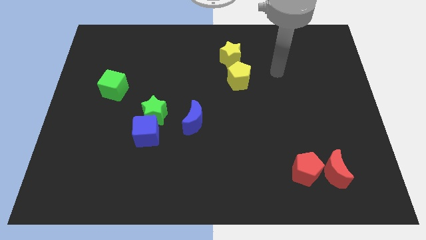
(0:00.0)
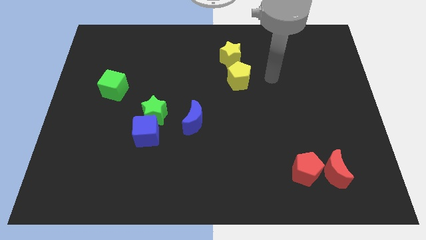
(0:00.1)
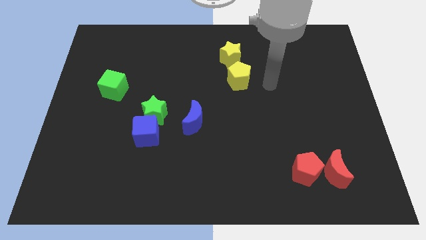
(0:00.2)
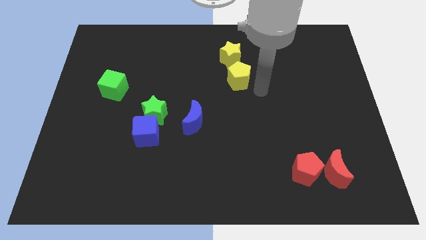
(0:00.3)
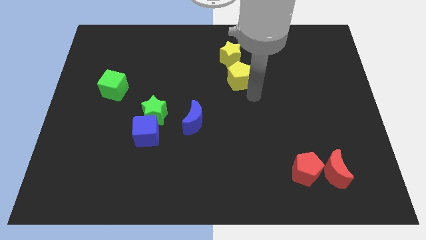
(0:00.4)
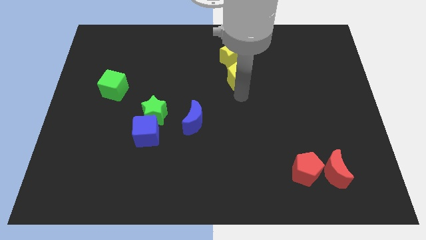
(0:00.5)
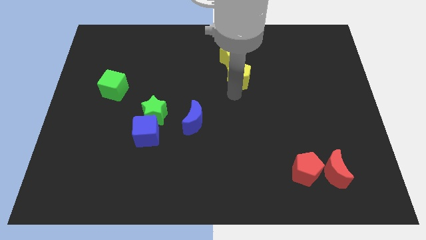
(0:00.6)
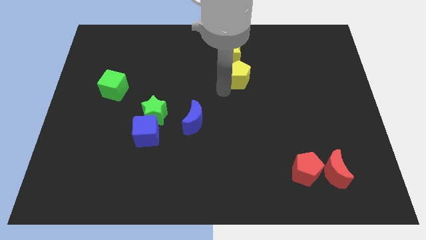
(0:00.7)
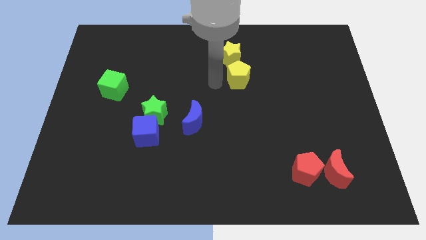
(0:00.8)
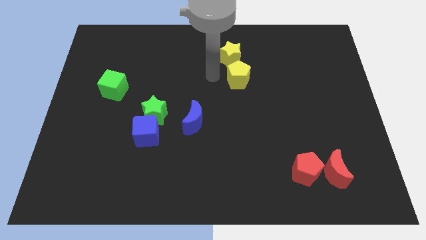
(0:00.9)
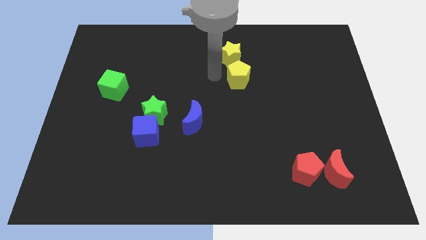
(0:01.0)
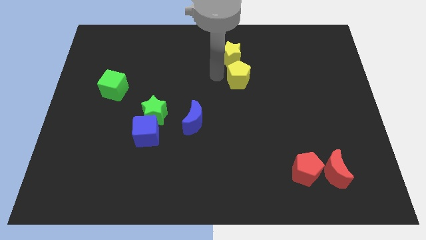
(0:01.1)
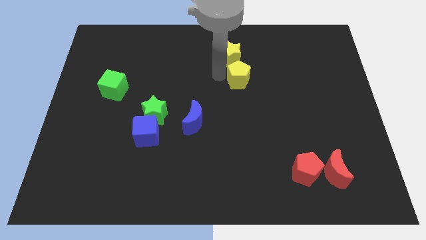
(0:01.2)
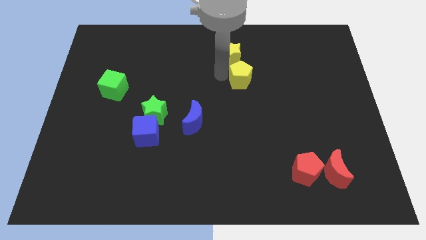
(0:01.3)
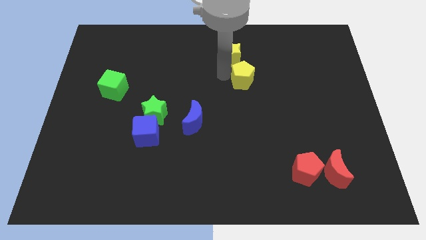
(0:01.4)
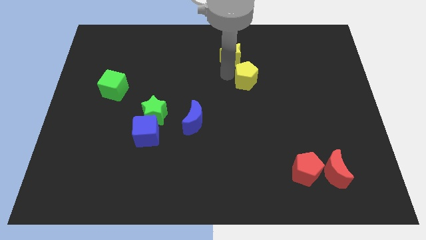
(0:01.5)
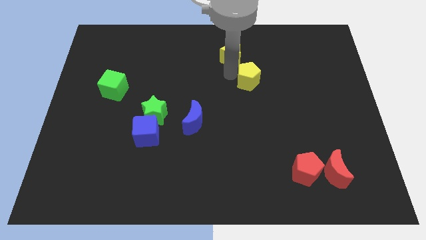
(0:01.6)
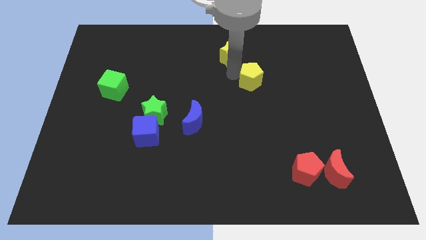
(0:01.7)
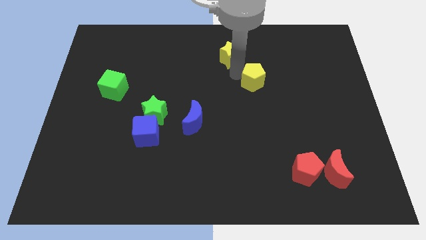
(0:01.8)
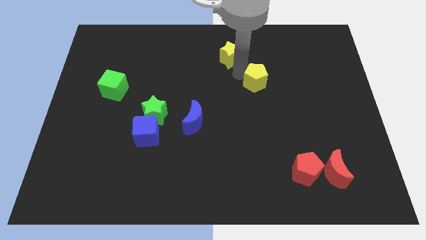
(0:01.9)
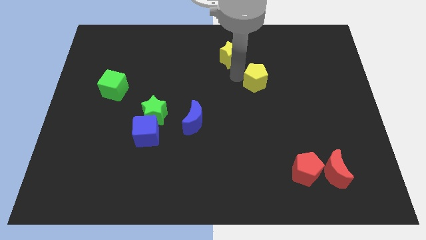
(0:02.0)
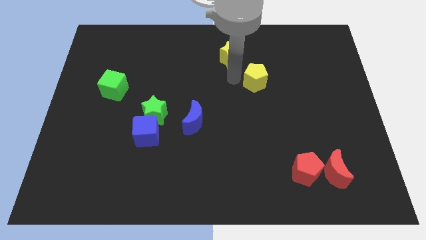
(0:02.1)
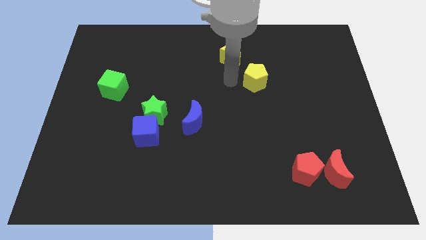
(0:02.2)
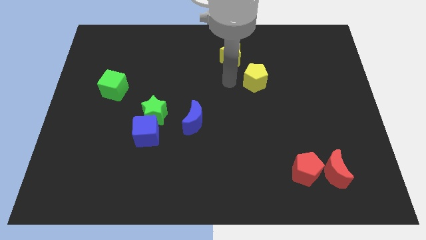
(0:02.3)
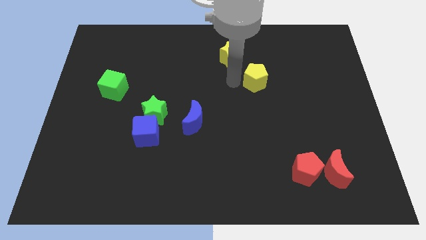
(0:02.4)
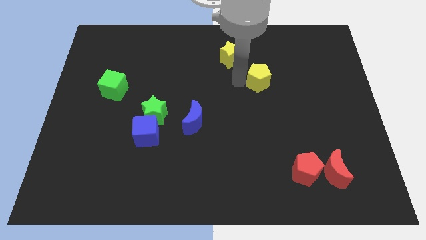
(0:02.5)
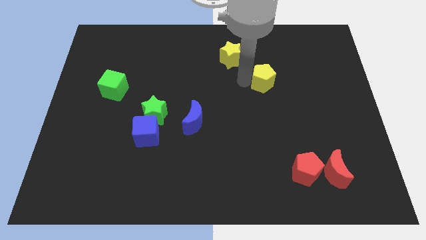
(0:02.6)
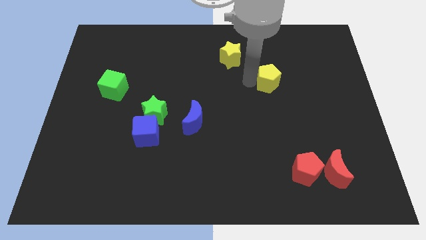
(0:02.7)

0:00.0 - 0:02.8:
move the yellow pentagon slightly right

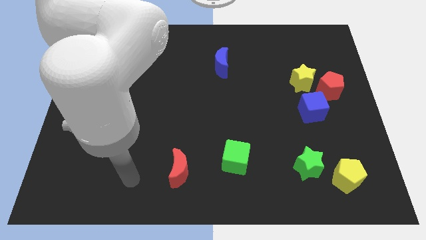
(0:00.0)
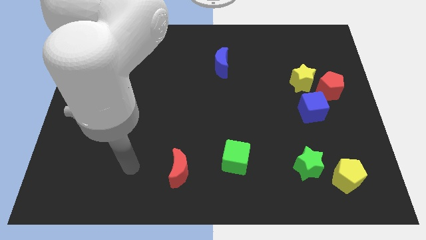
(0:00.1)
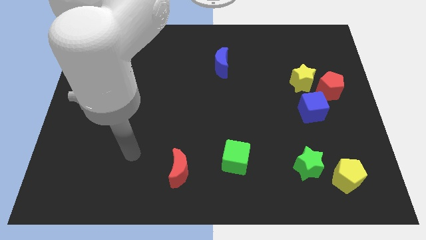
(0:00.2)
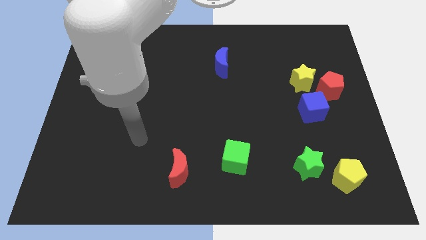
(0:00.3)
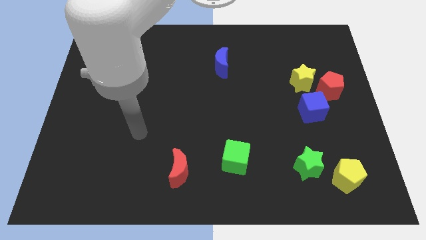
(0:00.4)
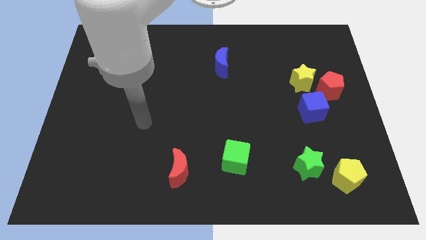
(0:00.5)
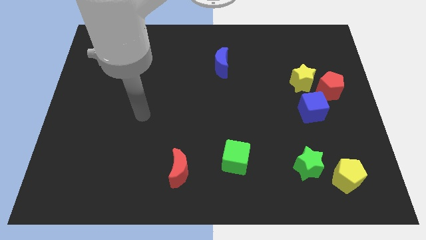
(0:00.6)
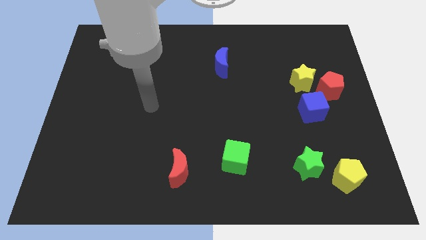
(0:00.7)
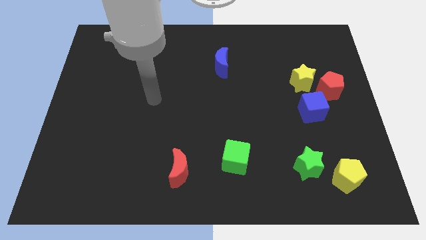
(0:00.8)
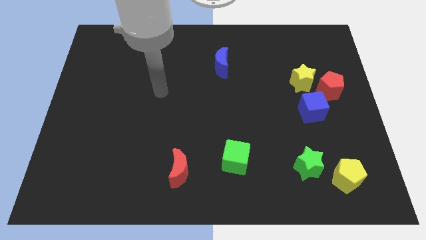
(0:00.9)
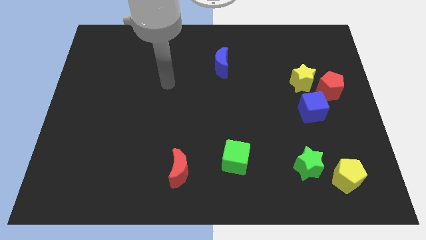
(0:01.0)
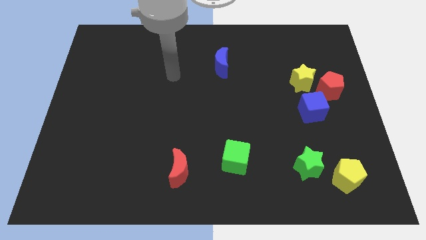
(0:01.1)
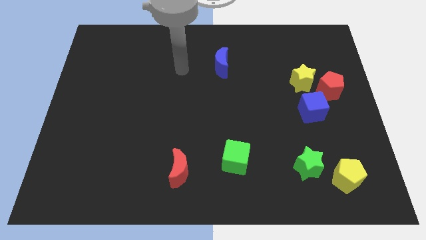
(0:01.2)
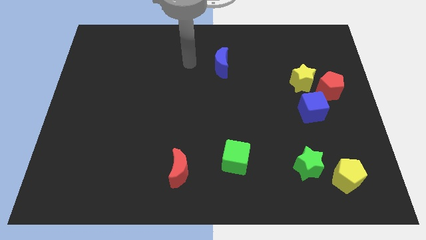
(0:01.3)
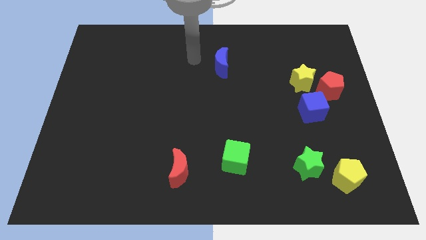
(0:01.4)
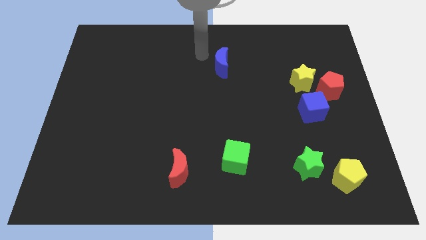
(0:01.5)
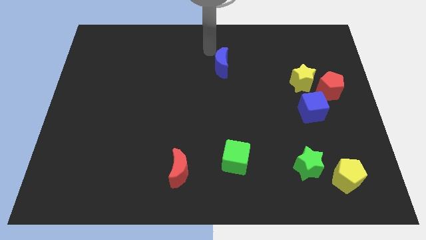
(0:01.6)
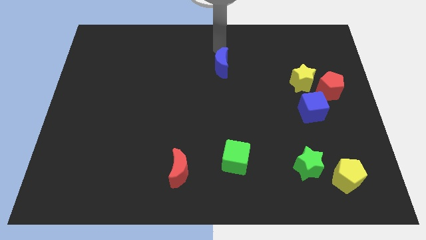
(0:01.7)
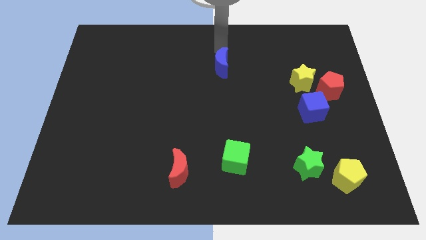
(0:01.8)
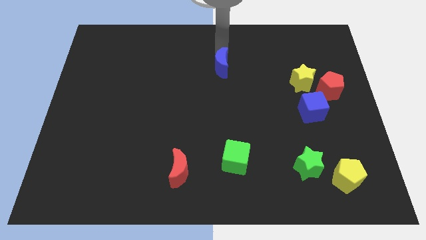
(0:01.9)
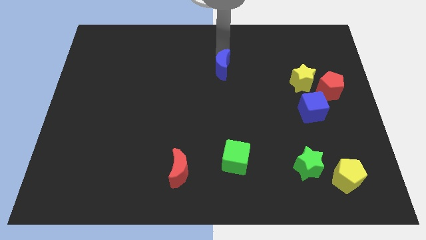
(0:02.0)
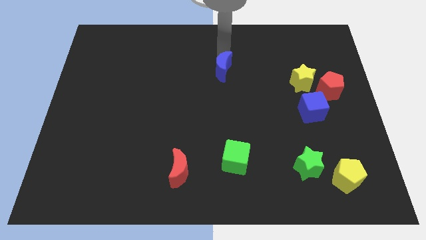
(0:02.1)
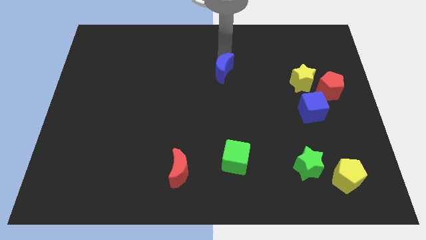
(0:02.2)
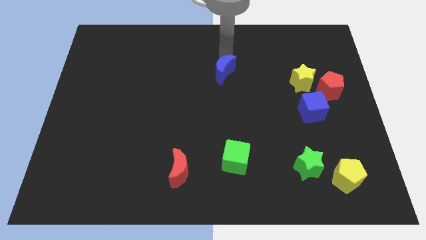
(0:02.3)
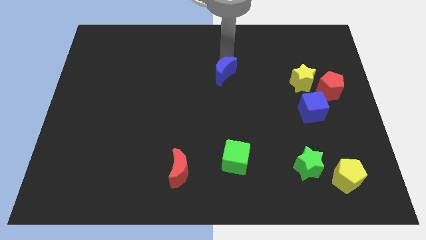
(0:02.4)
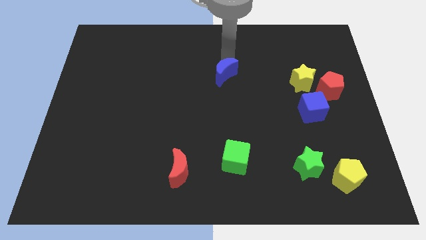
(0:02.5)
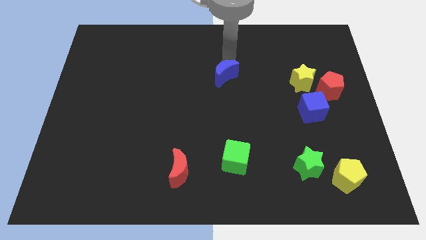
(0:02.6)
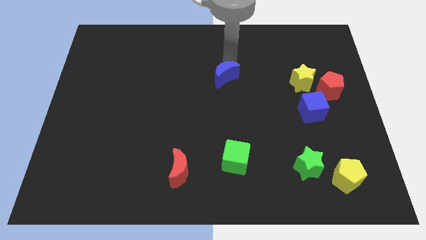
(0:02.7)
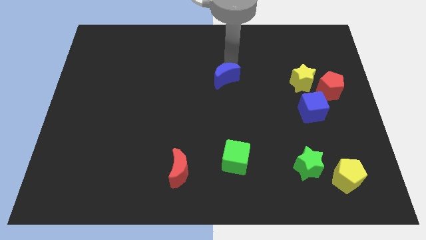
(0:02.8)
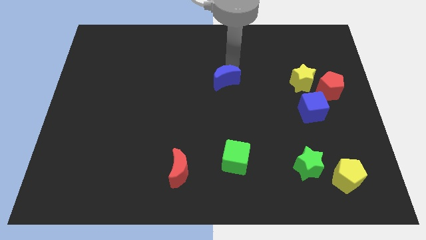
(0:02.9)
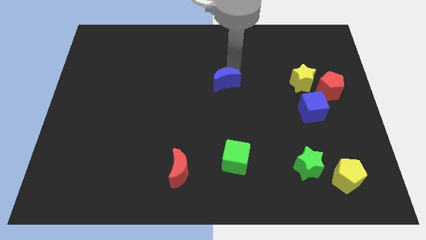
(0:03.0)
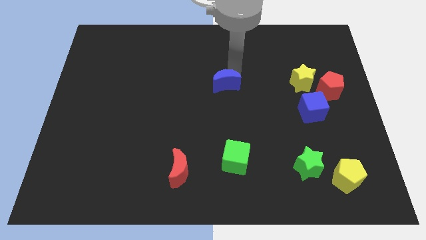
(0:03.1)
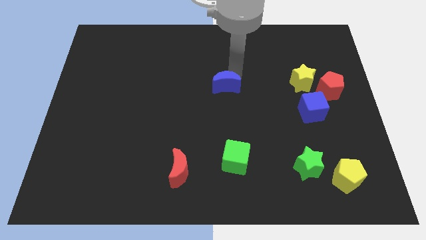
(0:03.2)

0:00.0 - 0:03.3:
slightly push the blue moon downwards

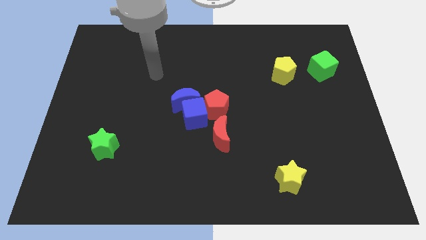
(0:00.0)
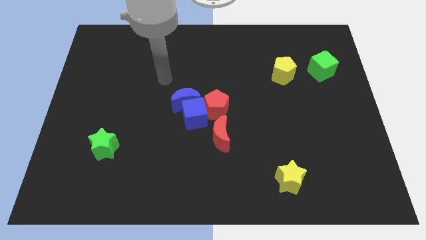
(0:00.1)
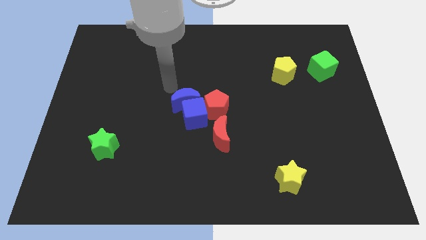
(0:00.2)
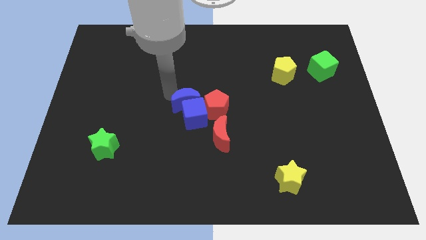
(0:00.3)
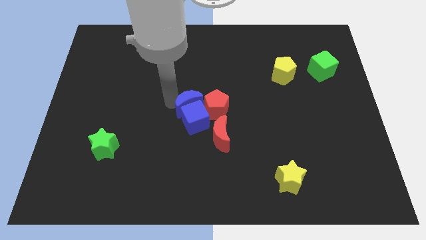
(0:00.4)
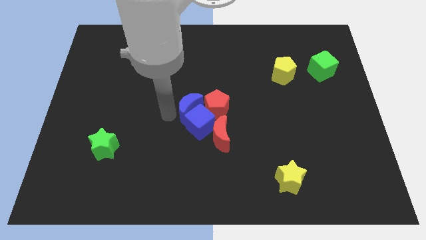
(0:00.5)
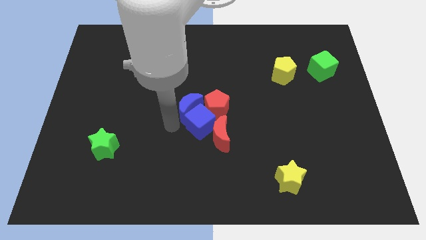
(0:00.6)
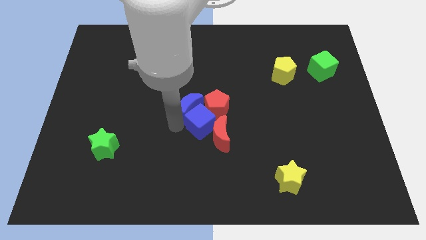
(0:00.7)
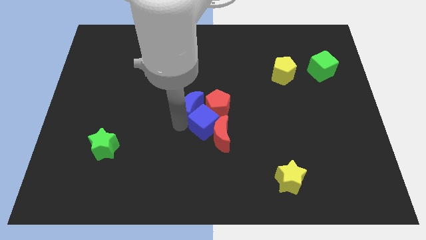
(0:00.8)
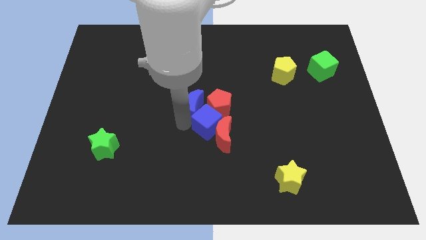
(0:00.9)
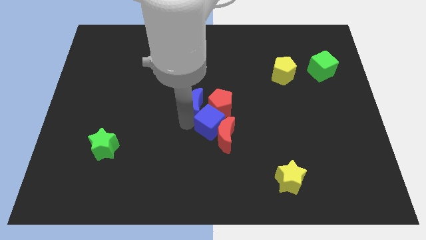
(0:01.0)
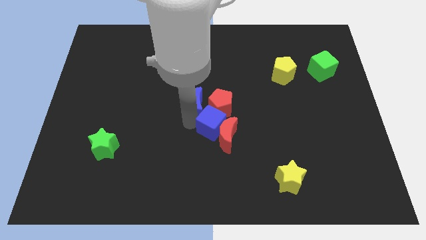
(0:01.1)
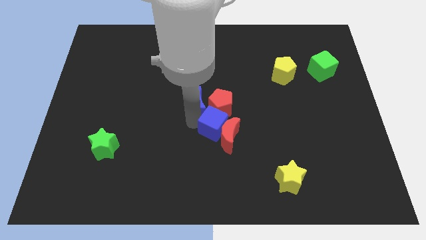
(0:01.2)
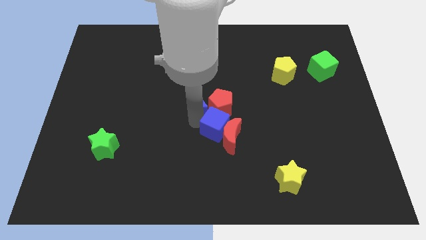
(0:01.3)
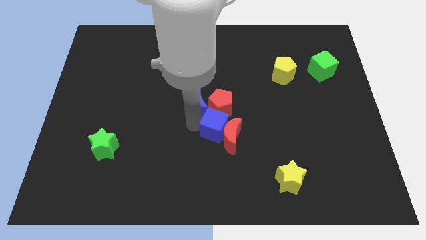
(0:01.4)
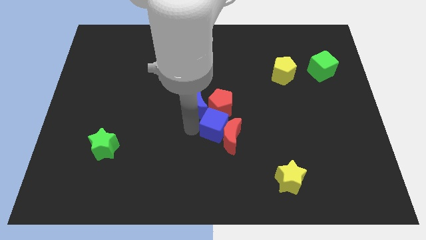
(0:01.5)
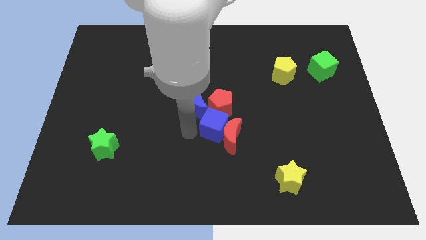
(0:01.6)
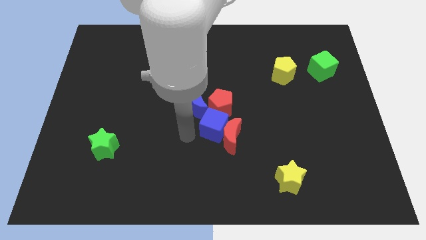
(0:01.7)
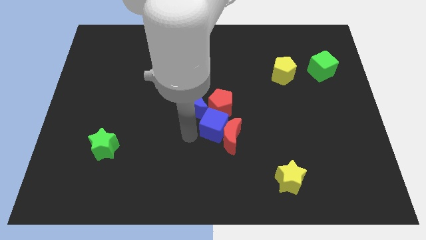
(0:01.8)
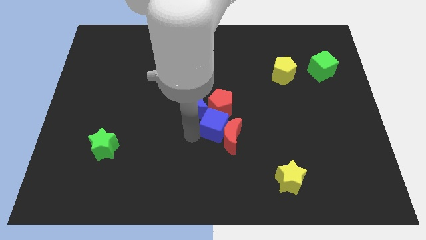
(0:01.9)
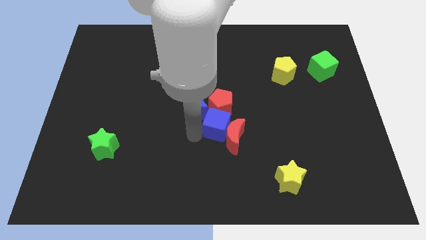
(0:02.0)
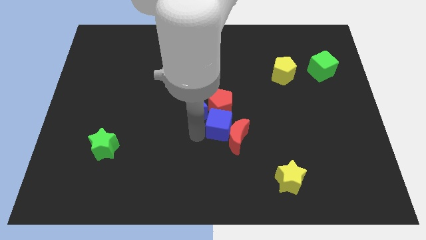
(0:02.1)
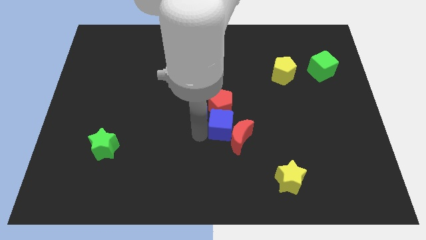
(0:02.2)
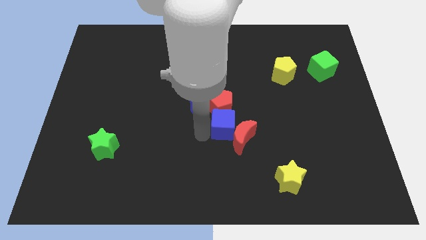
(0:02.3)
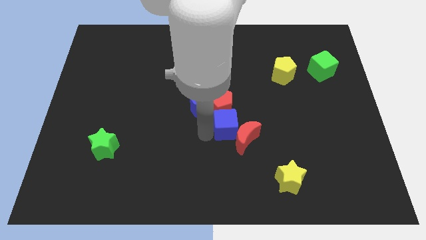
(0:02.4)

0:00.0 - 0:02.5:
slightly move the blue cube to the right
